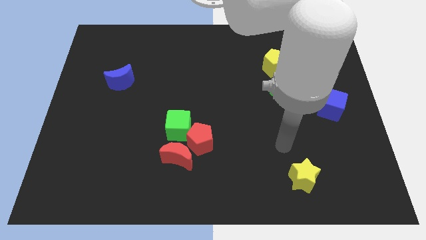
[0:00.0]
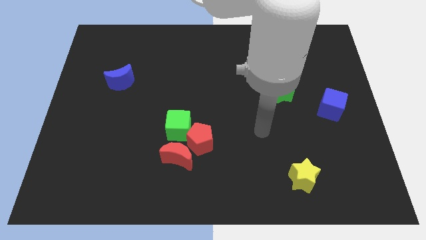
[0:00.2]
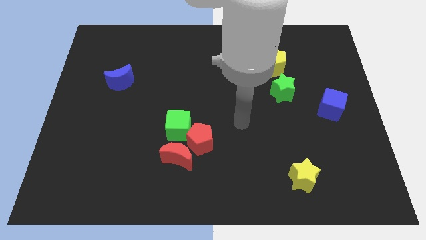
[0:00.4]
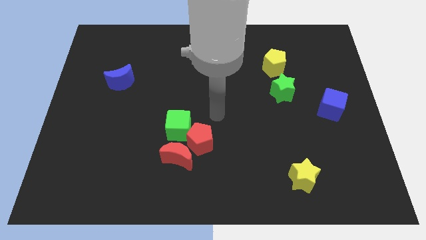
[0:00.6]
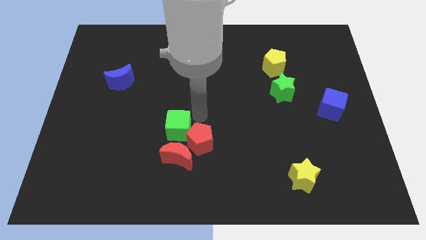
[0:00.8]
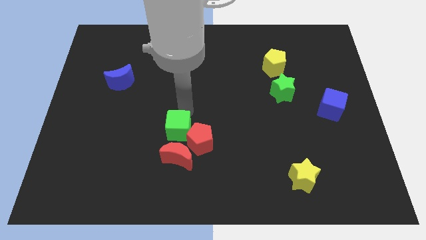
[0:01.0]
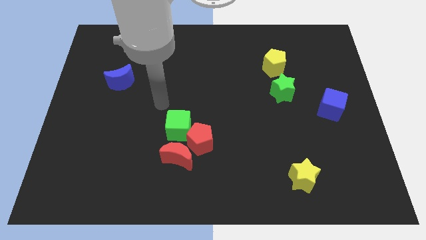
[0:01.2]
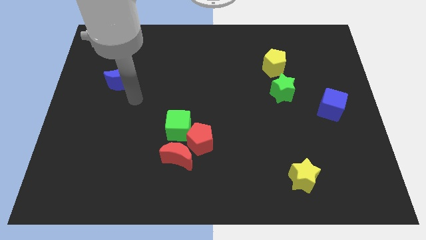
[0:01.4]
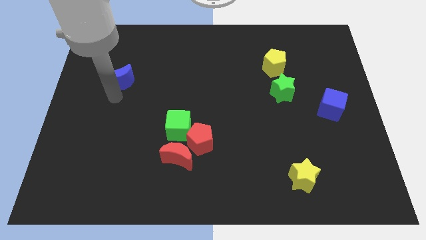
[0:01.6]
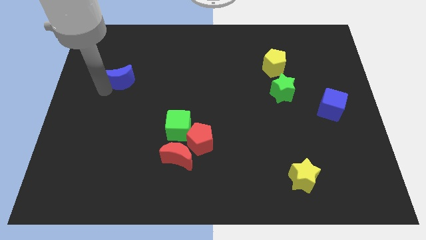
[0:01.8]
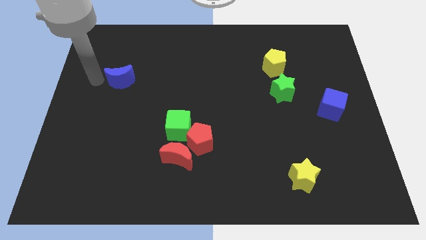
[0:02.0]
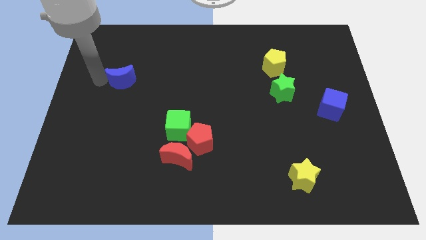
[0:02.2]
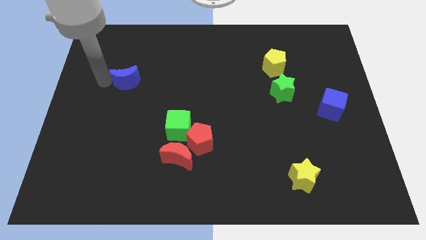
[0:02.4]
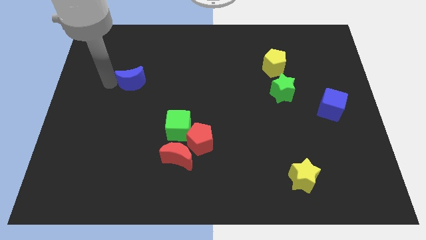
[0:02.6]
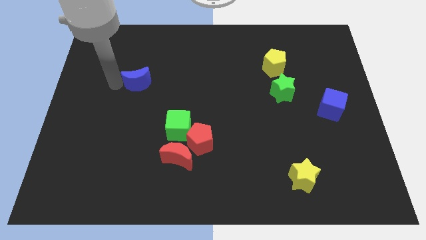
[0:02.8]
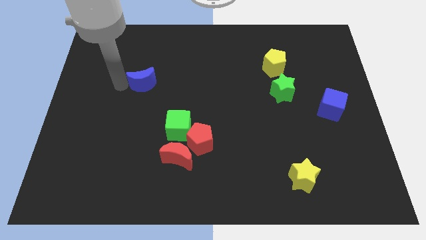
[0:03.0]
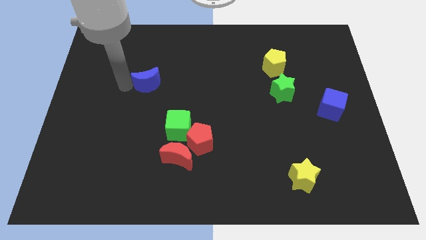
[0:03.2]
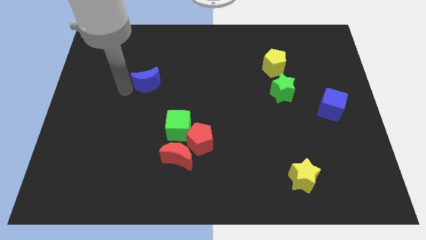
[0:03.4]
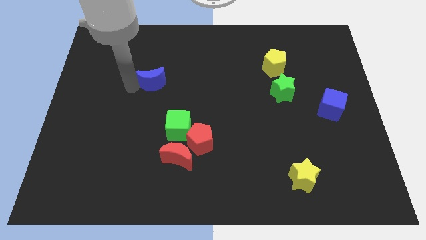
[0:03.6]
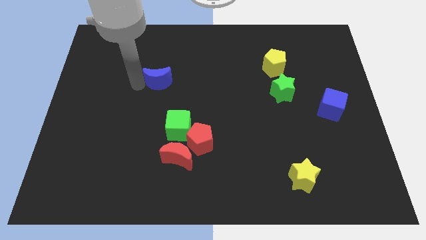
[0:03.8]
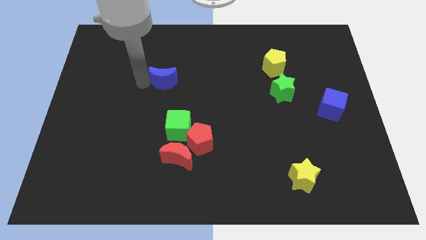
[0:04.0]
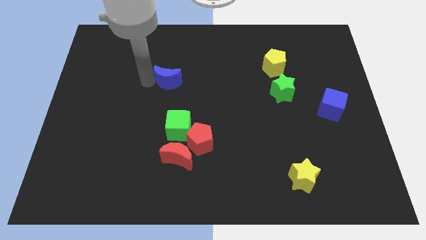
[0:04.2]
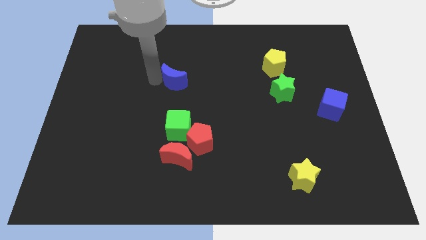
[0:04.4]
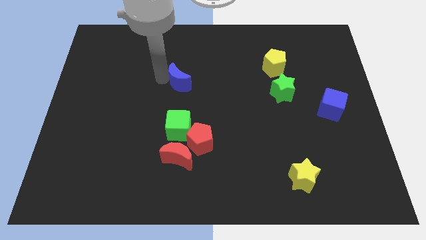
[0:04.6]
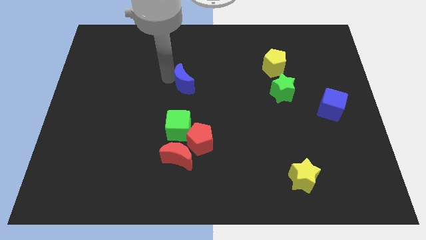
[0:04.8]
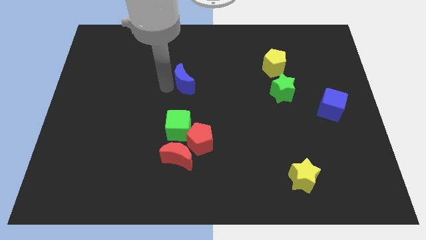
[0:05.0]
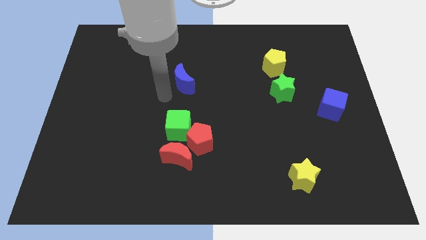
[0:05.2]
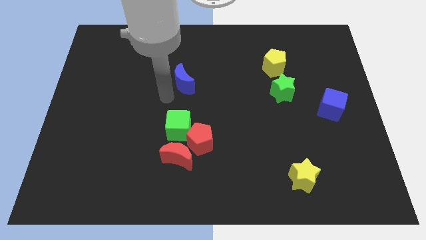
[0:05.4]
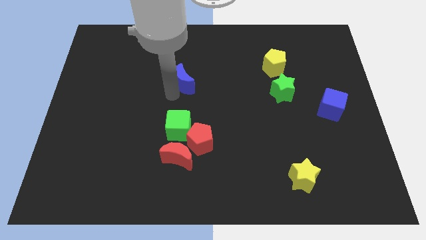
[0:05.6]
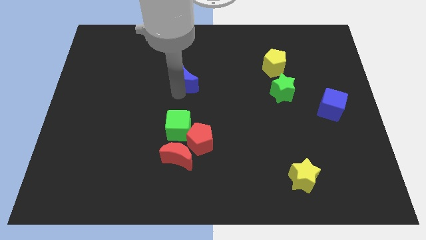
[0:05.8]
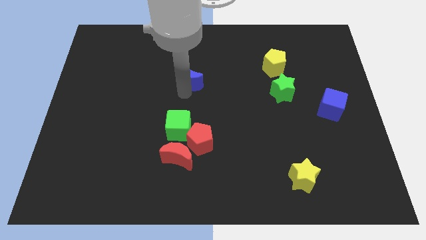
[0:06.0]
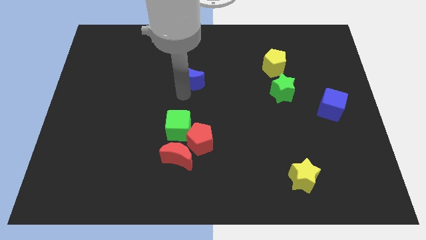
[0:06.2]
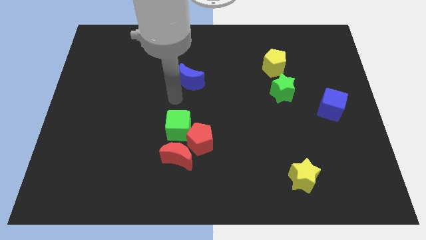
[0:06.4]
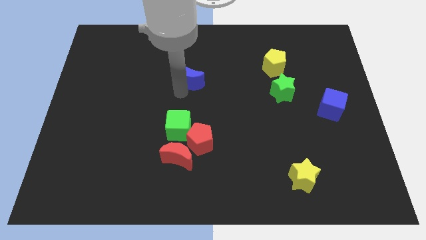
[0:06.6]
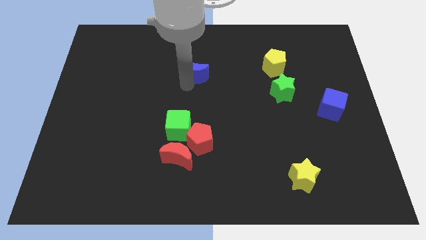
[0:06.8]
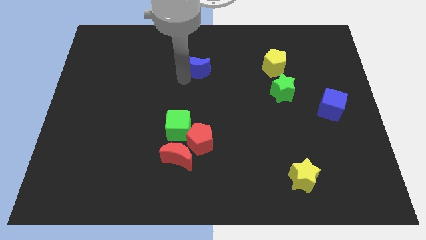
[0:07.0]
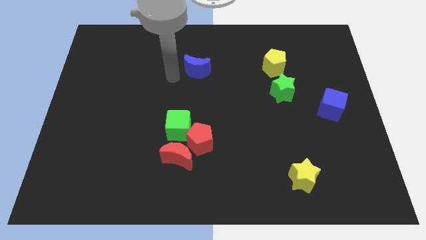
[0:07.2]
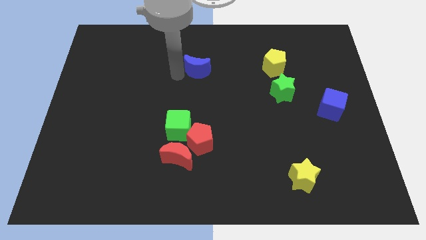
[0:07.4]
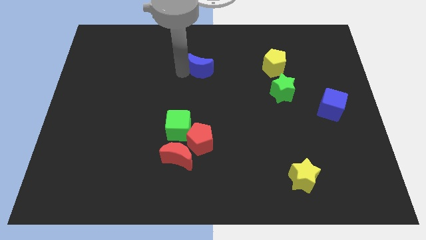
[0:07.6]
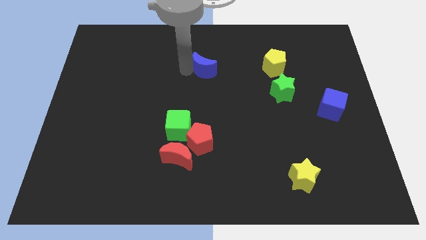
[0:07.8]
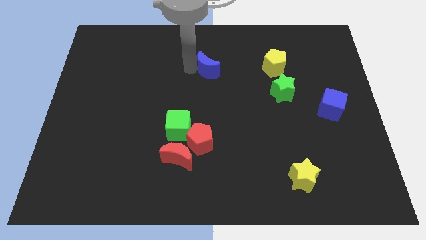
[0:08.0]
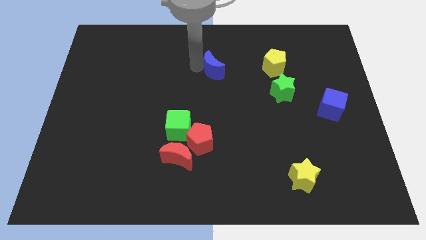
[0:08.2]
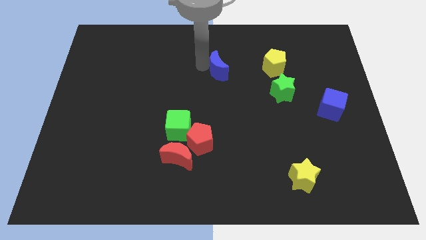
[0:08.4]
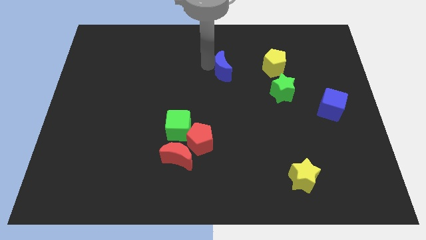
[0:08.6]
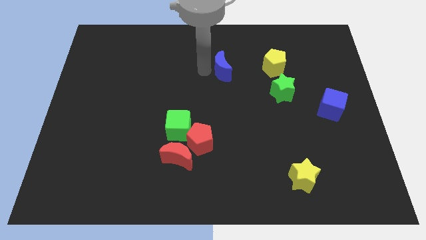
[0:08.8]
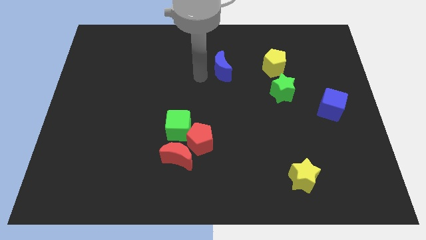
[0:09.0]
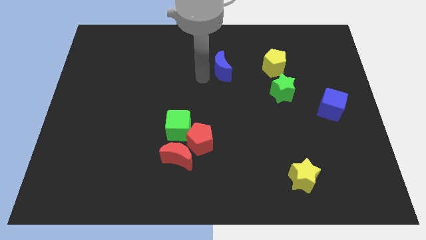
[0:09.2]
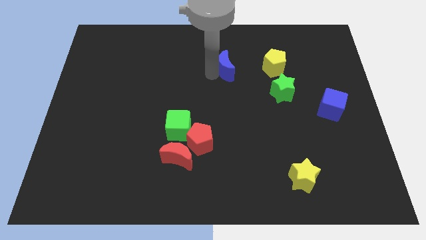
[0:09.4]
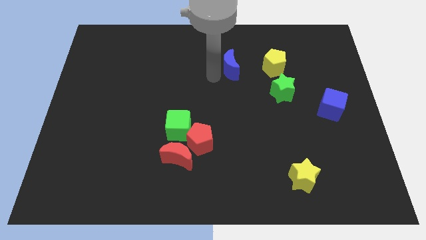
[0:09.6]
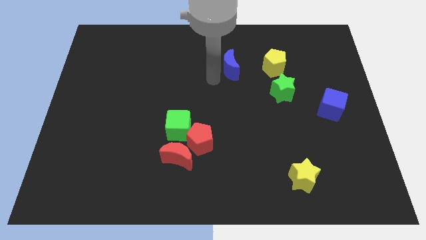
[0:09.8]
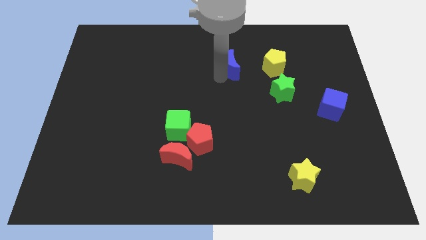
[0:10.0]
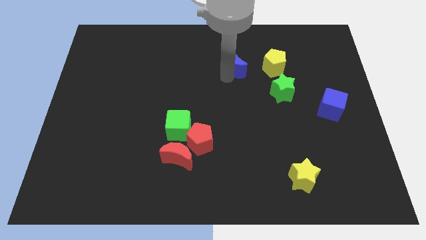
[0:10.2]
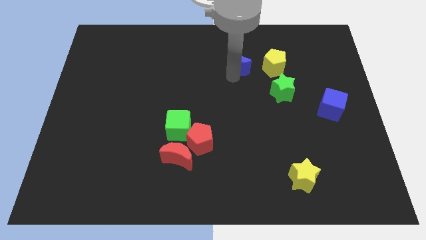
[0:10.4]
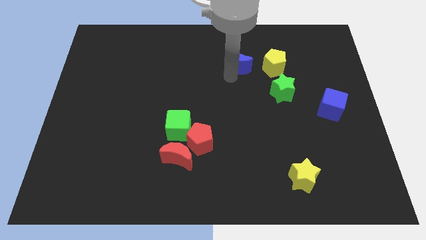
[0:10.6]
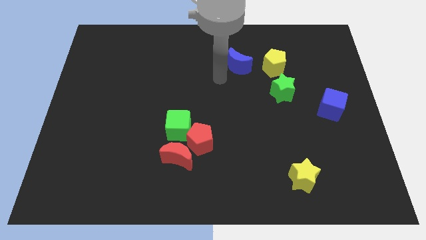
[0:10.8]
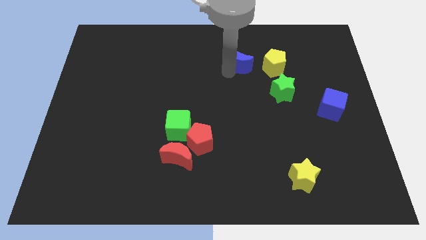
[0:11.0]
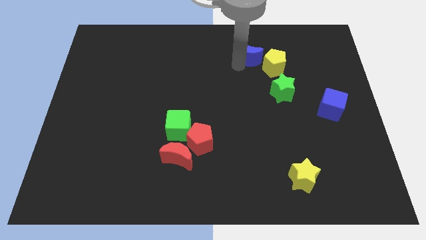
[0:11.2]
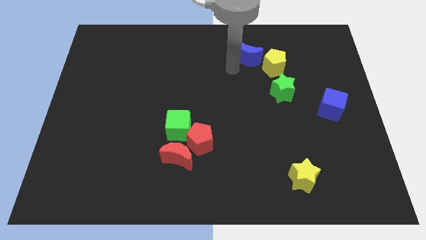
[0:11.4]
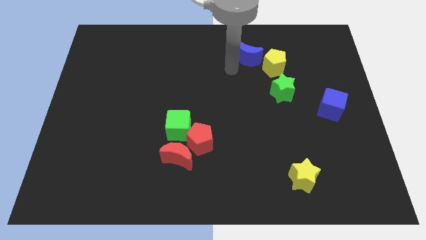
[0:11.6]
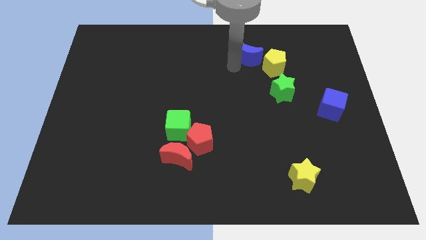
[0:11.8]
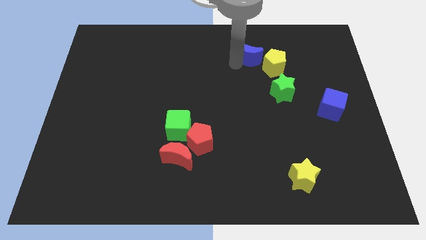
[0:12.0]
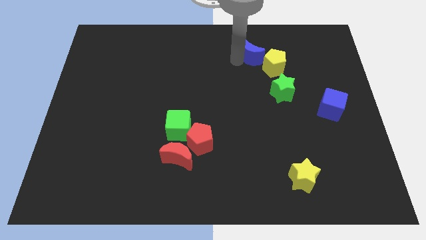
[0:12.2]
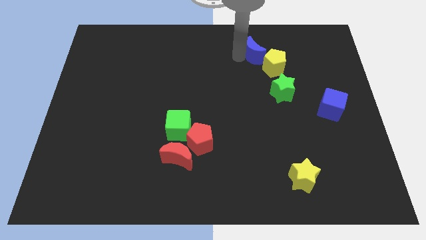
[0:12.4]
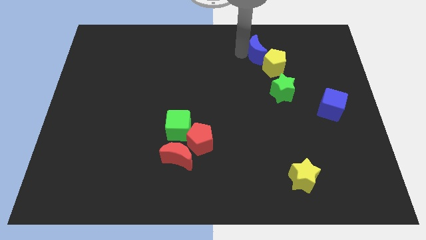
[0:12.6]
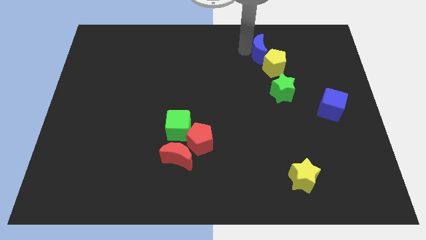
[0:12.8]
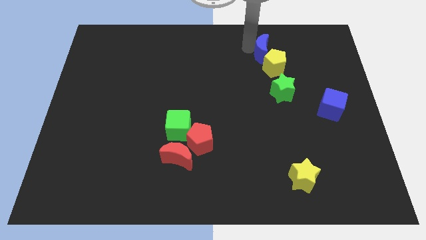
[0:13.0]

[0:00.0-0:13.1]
push the blue moon above the green star

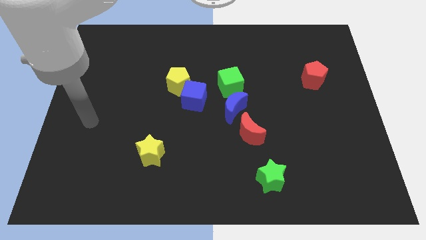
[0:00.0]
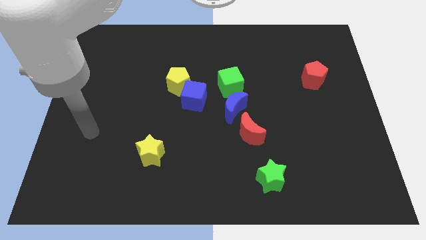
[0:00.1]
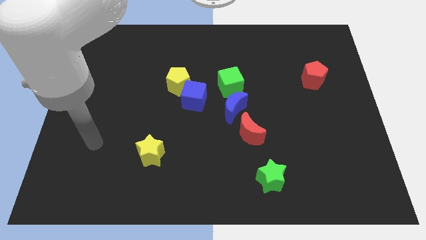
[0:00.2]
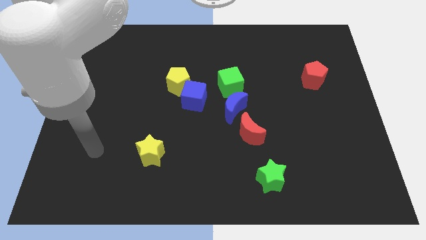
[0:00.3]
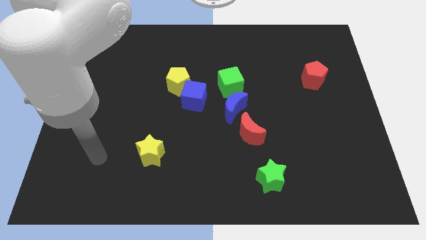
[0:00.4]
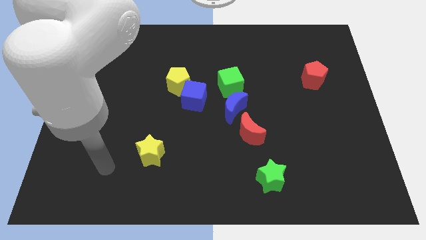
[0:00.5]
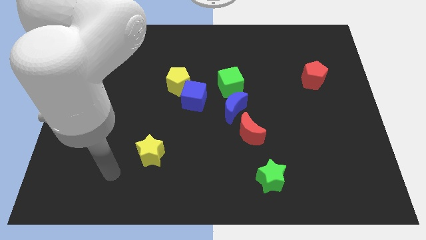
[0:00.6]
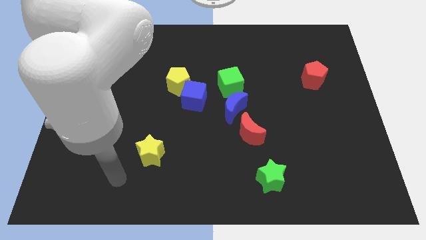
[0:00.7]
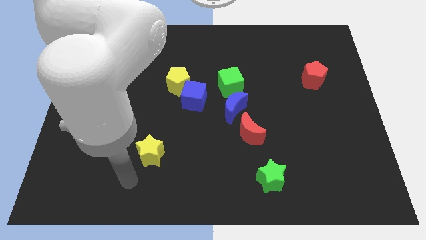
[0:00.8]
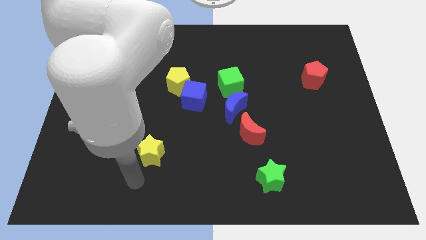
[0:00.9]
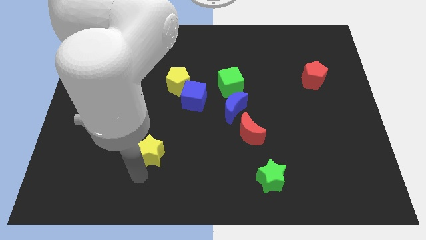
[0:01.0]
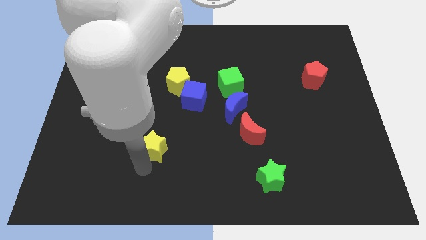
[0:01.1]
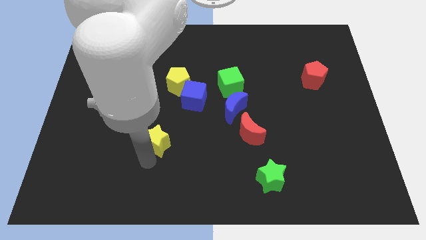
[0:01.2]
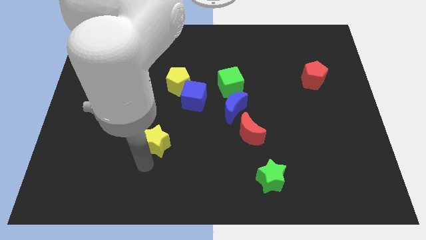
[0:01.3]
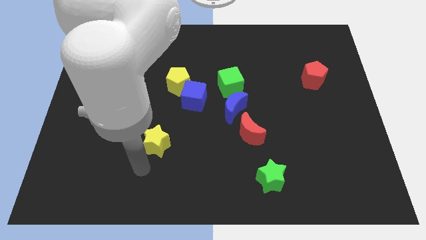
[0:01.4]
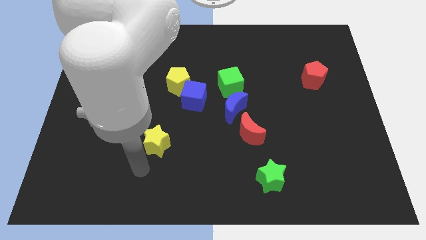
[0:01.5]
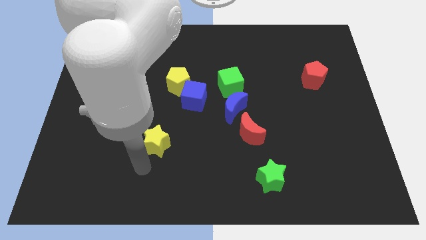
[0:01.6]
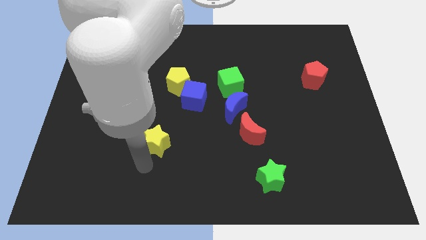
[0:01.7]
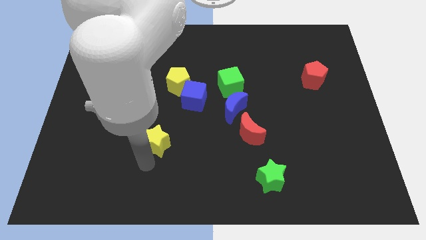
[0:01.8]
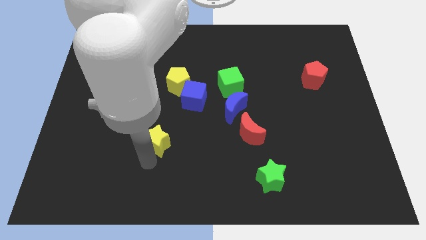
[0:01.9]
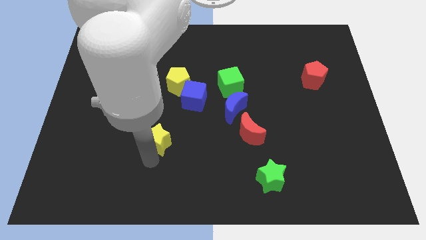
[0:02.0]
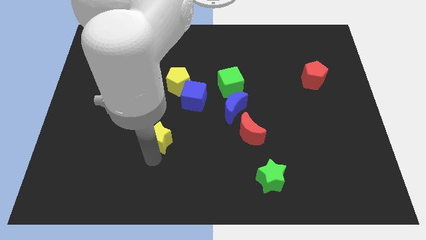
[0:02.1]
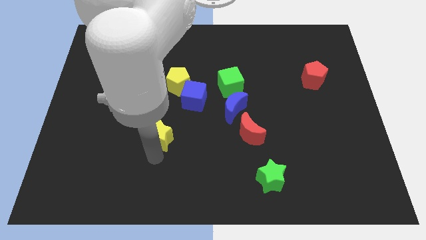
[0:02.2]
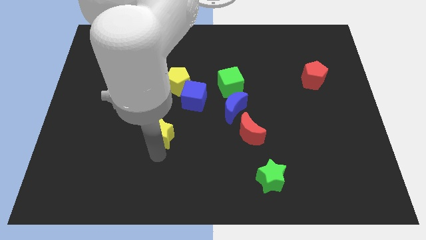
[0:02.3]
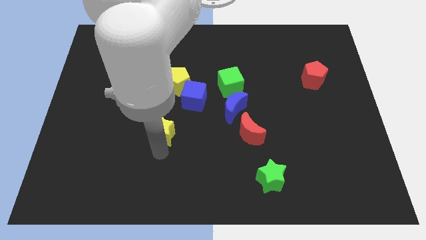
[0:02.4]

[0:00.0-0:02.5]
move the yellow star to the bottom left side of the blue cube
